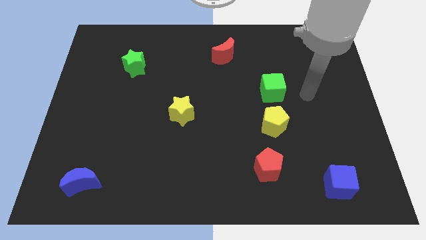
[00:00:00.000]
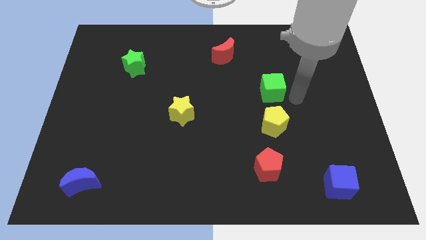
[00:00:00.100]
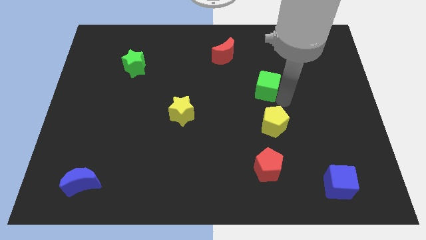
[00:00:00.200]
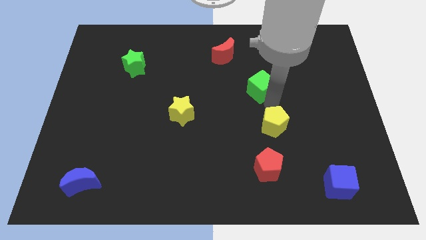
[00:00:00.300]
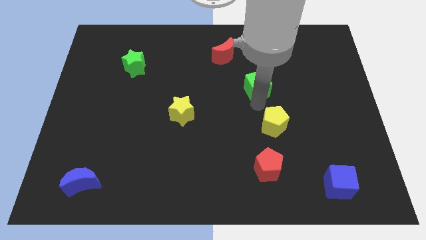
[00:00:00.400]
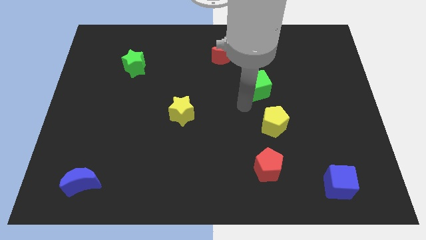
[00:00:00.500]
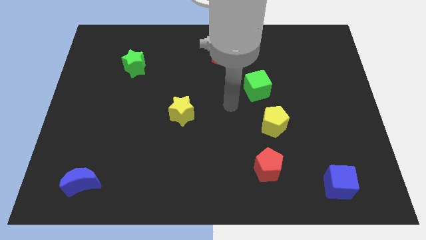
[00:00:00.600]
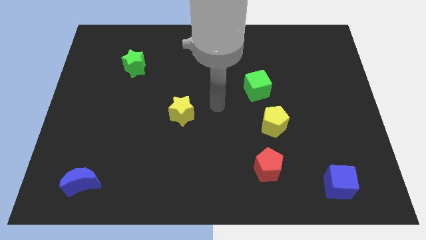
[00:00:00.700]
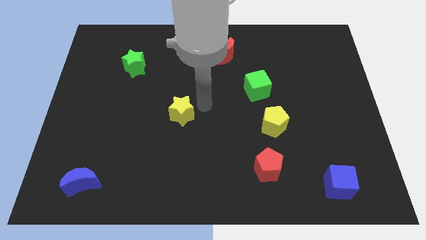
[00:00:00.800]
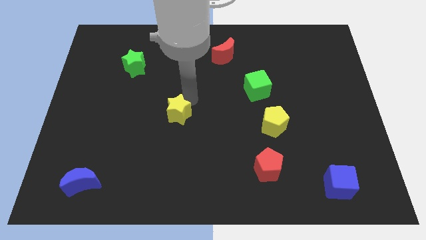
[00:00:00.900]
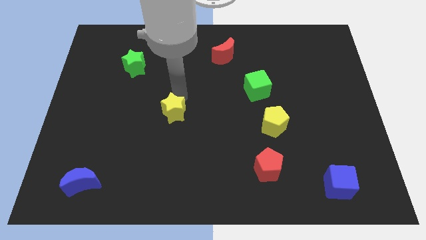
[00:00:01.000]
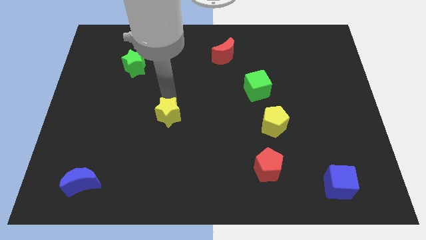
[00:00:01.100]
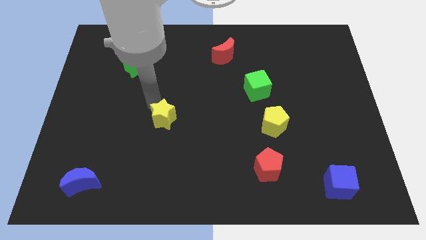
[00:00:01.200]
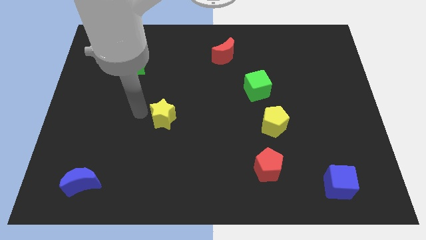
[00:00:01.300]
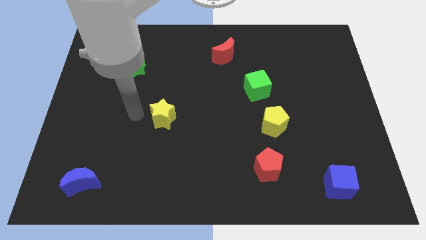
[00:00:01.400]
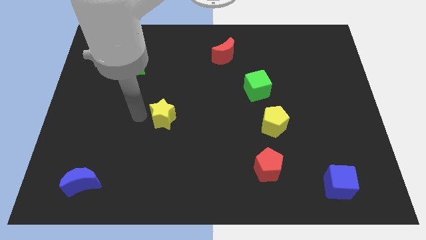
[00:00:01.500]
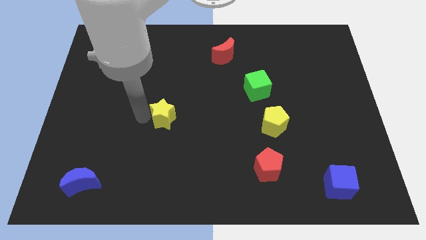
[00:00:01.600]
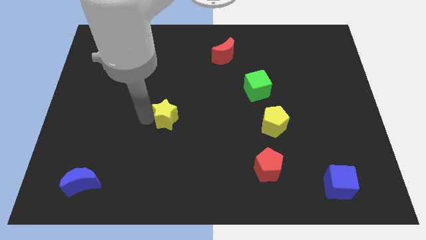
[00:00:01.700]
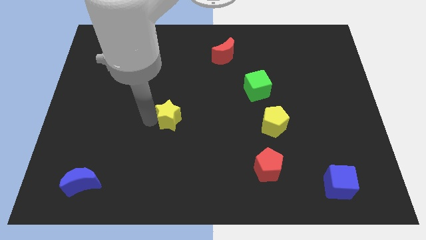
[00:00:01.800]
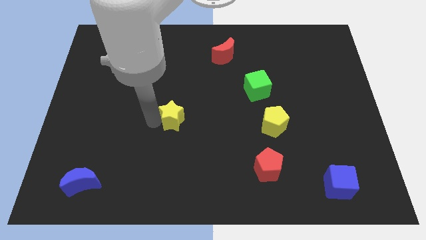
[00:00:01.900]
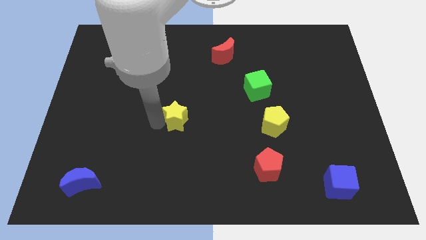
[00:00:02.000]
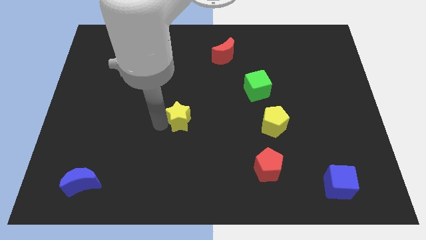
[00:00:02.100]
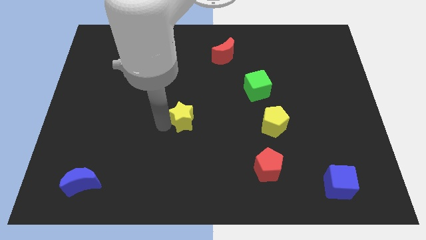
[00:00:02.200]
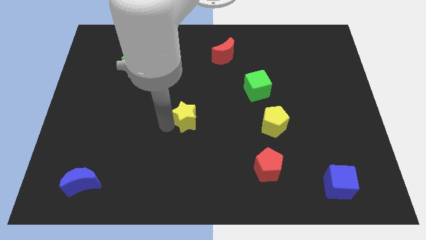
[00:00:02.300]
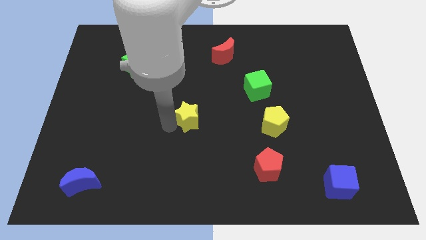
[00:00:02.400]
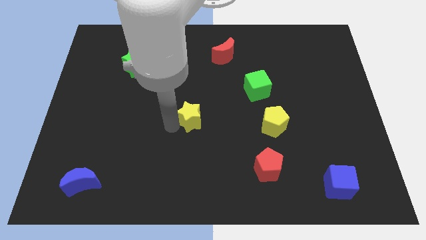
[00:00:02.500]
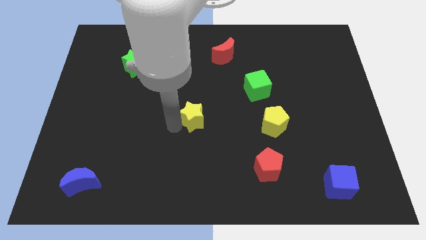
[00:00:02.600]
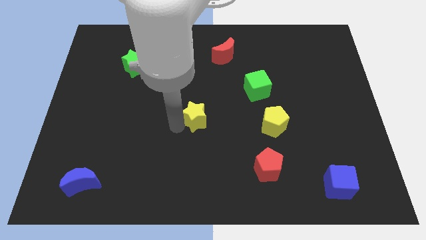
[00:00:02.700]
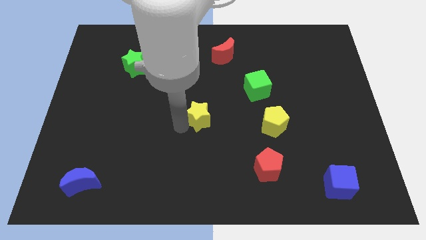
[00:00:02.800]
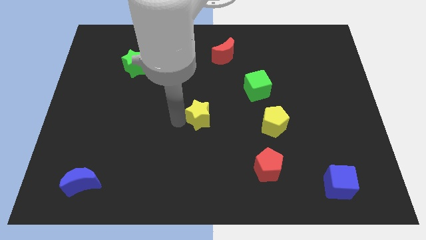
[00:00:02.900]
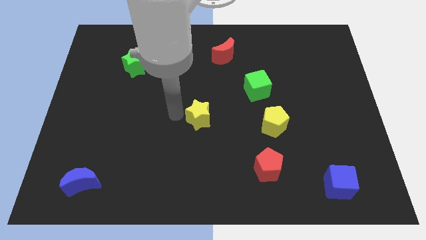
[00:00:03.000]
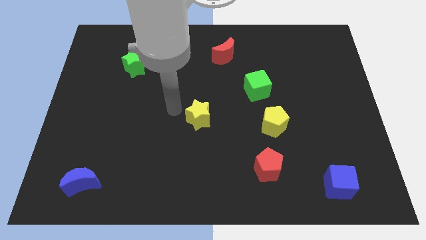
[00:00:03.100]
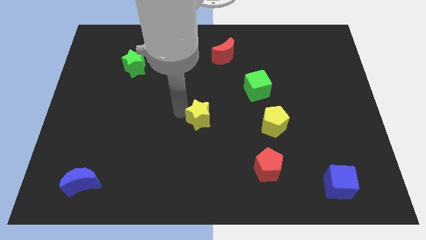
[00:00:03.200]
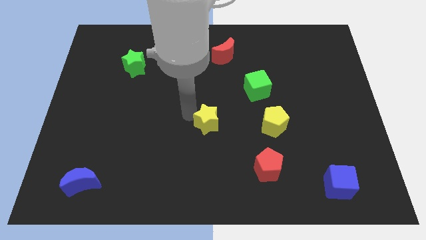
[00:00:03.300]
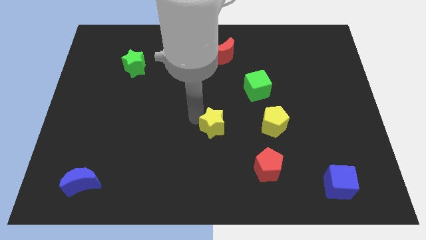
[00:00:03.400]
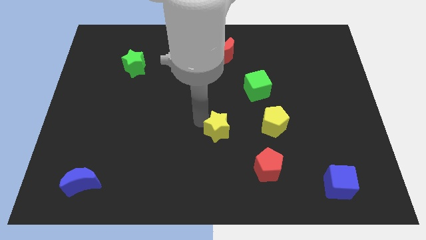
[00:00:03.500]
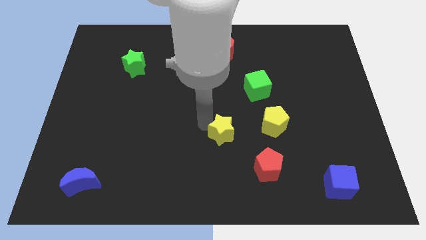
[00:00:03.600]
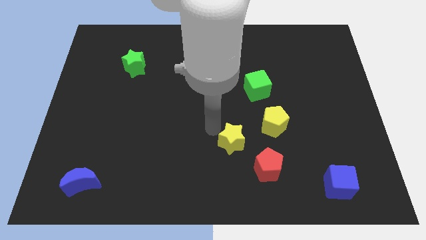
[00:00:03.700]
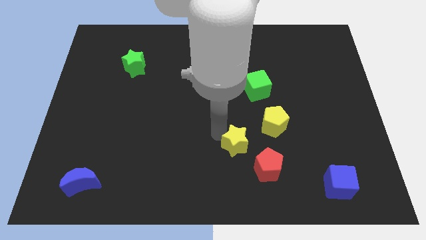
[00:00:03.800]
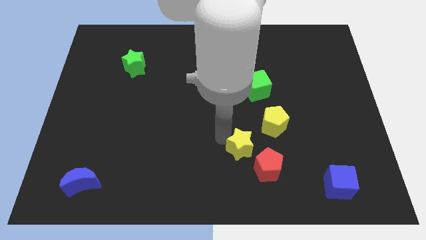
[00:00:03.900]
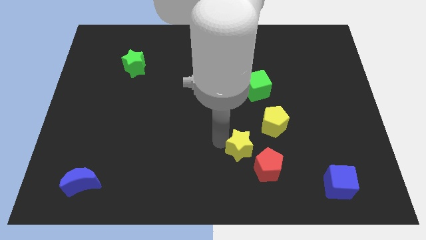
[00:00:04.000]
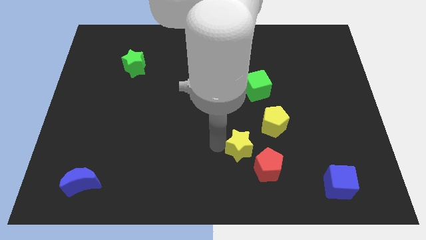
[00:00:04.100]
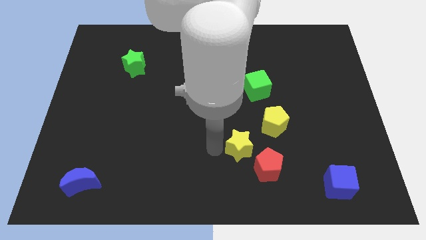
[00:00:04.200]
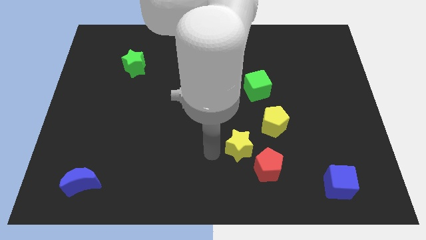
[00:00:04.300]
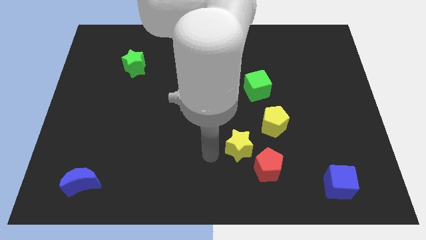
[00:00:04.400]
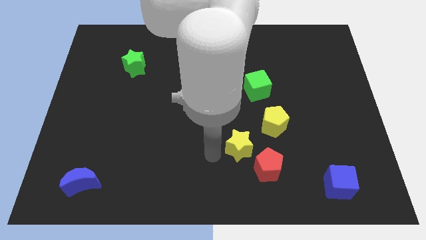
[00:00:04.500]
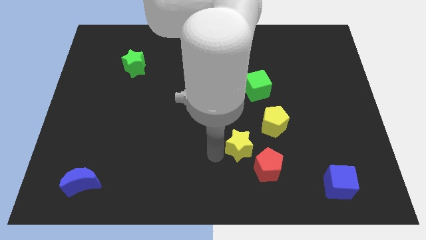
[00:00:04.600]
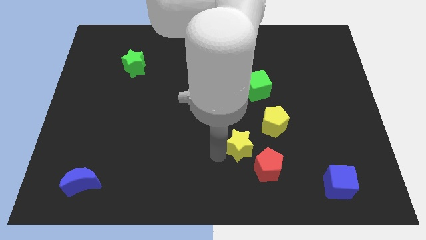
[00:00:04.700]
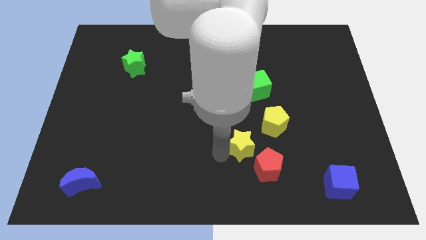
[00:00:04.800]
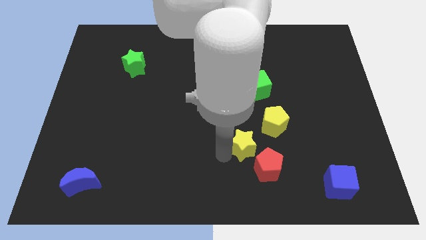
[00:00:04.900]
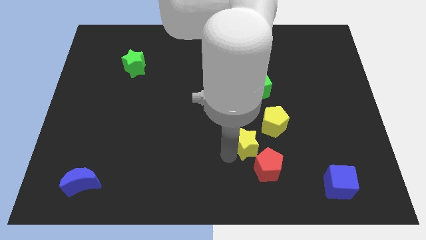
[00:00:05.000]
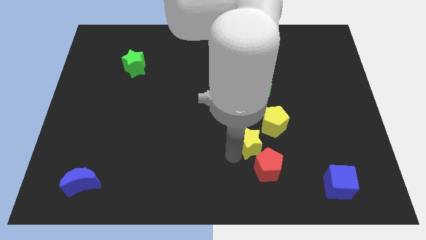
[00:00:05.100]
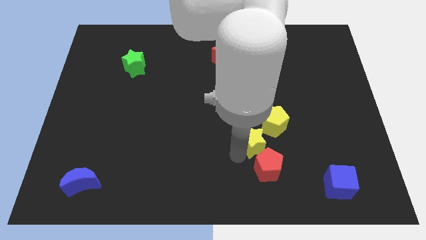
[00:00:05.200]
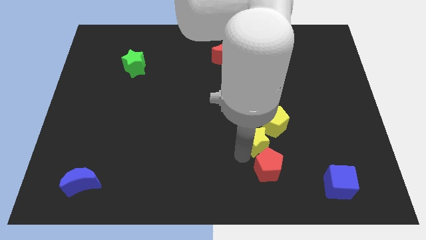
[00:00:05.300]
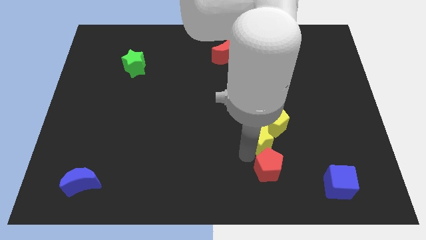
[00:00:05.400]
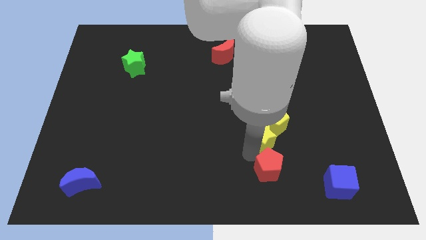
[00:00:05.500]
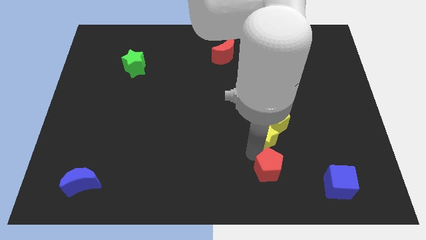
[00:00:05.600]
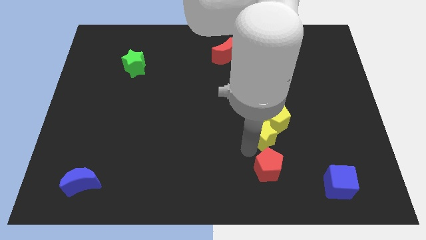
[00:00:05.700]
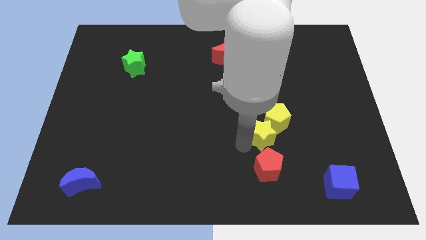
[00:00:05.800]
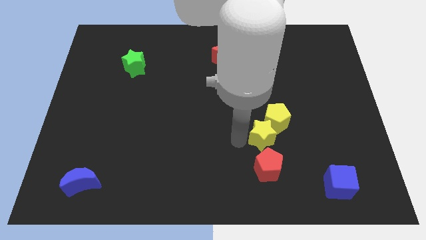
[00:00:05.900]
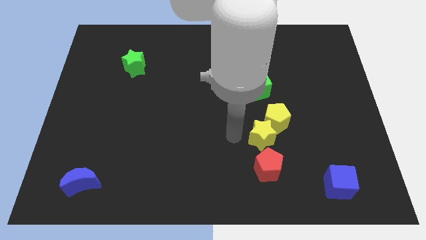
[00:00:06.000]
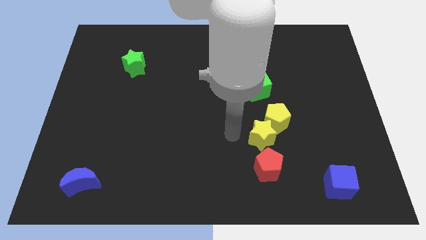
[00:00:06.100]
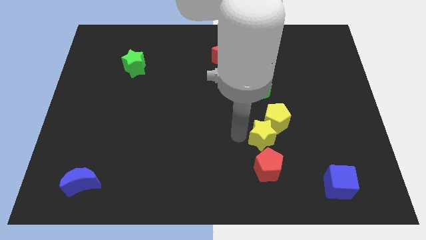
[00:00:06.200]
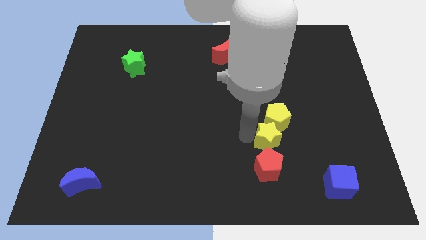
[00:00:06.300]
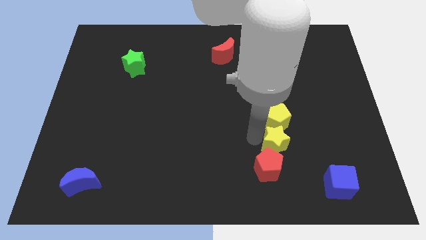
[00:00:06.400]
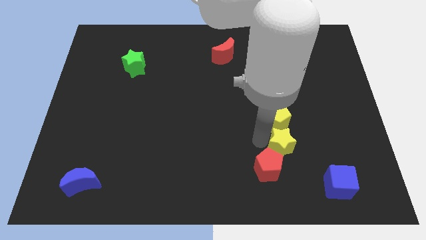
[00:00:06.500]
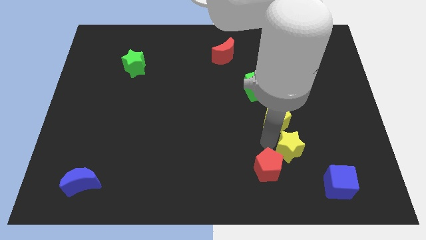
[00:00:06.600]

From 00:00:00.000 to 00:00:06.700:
push the yellow star diagonally up and to the left of the blue cube

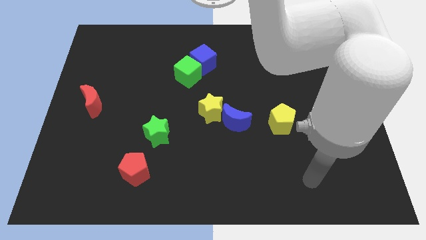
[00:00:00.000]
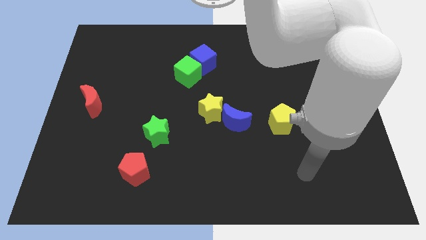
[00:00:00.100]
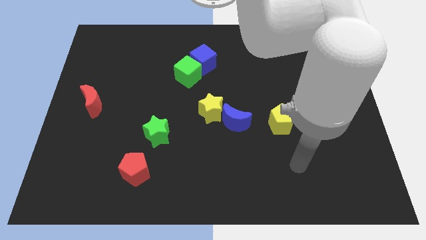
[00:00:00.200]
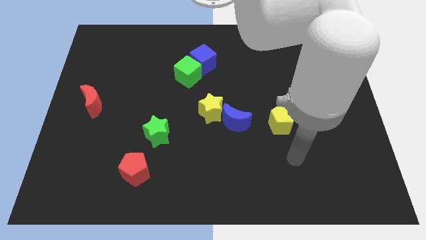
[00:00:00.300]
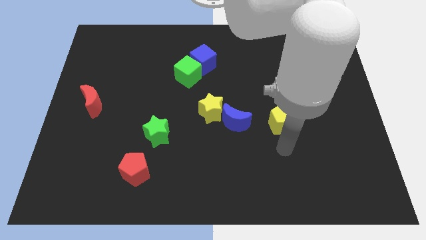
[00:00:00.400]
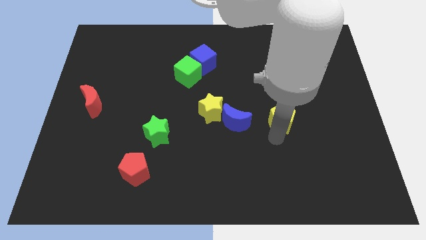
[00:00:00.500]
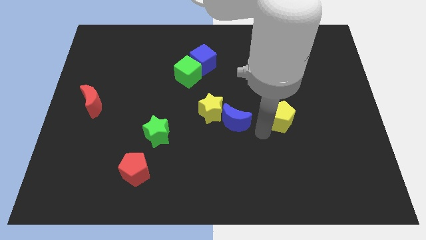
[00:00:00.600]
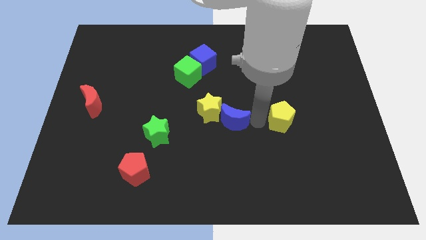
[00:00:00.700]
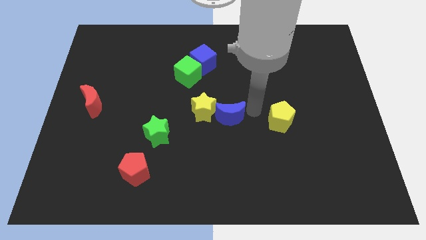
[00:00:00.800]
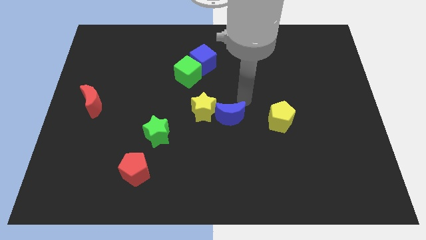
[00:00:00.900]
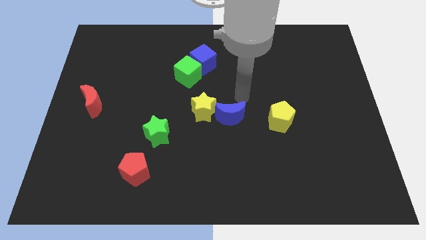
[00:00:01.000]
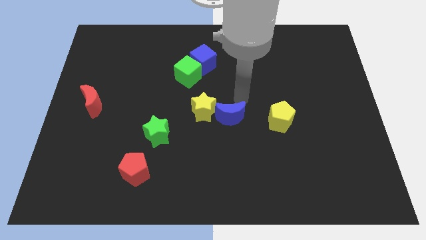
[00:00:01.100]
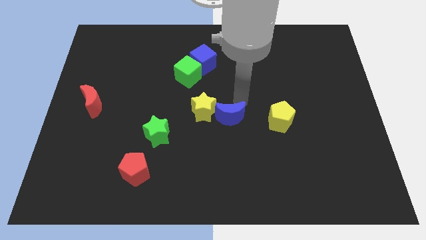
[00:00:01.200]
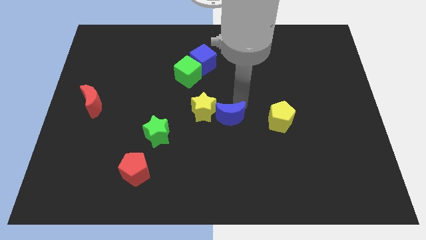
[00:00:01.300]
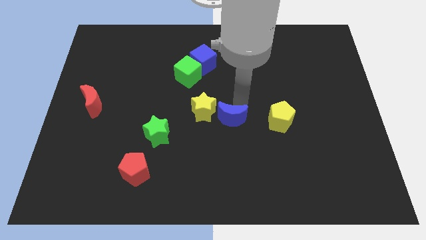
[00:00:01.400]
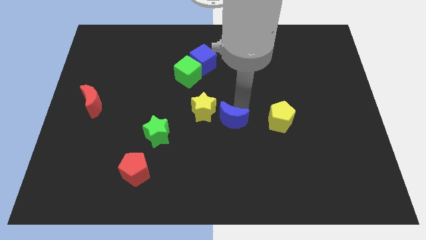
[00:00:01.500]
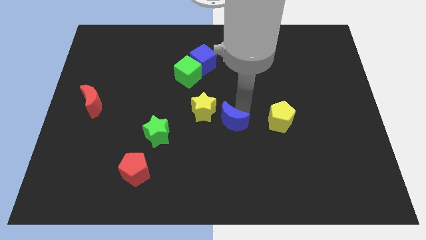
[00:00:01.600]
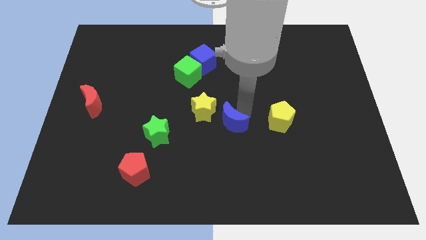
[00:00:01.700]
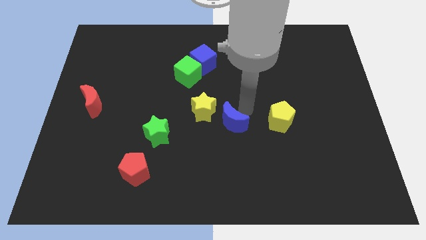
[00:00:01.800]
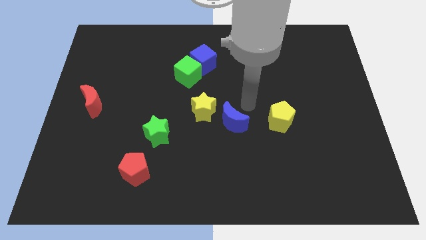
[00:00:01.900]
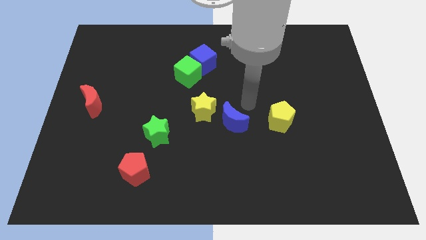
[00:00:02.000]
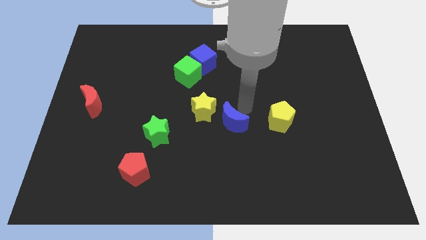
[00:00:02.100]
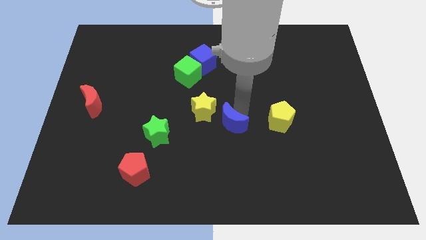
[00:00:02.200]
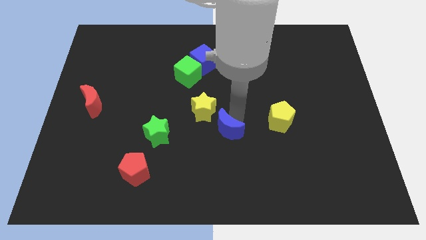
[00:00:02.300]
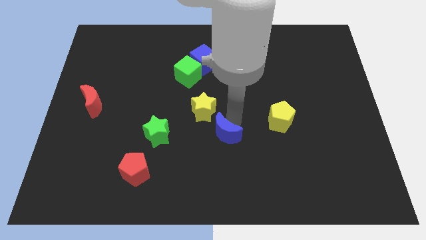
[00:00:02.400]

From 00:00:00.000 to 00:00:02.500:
slide the blue moon to the bottom side of the yellow star
